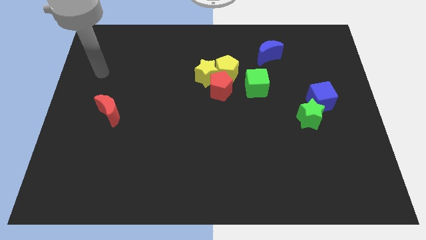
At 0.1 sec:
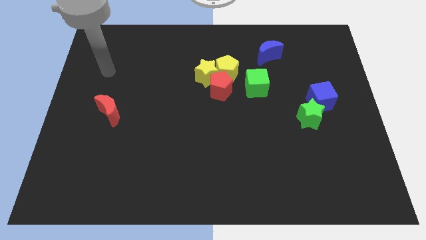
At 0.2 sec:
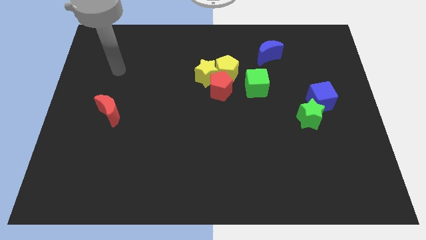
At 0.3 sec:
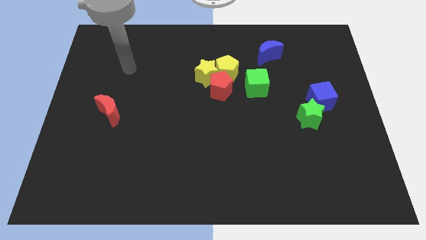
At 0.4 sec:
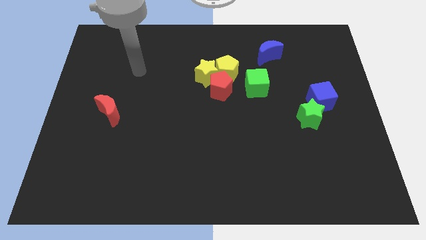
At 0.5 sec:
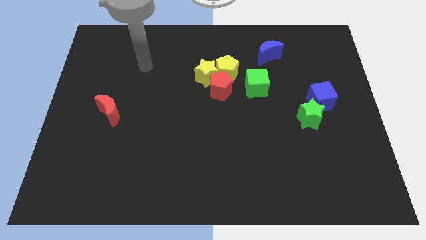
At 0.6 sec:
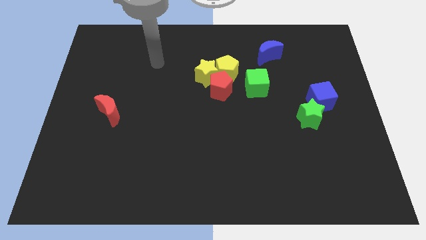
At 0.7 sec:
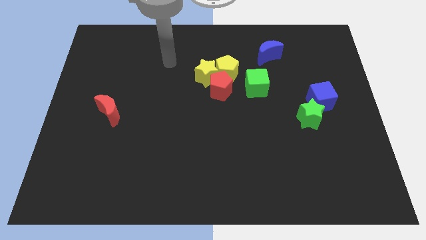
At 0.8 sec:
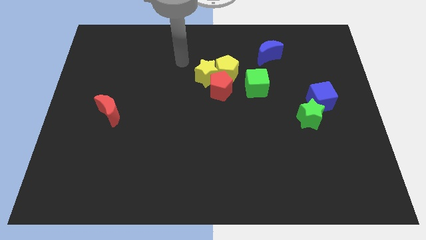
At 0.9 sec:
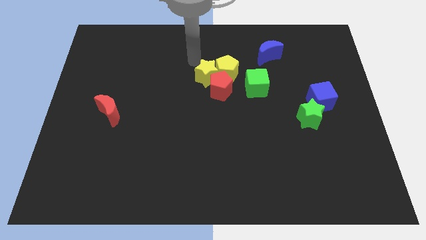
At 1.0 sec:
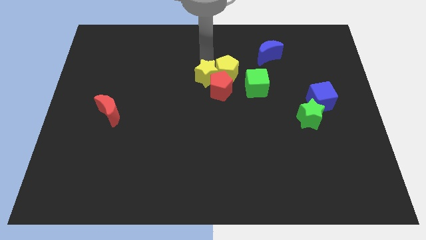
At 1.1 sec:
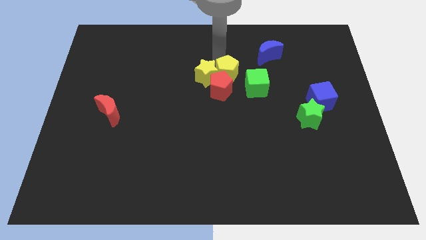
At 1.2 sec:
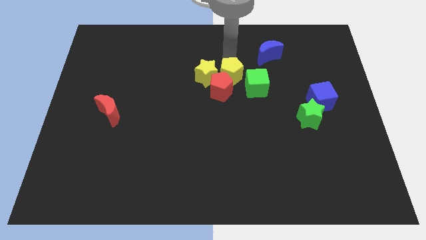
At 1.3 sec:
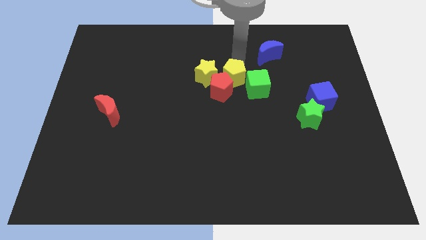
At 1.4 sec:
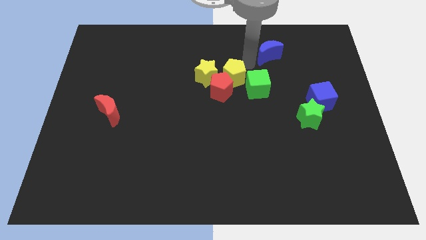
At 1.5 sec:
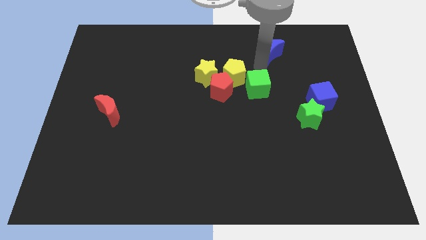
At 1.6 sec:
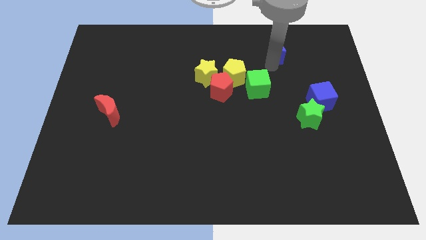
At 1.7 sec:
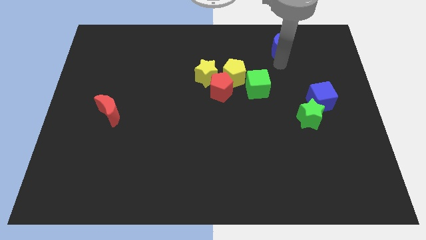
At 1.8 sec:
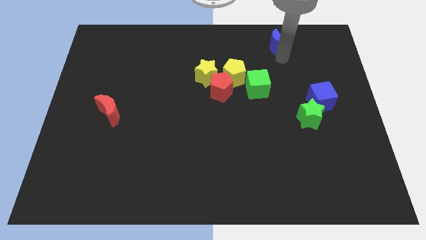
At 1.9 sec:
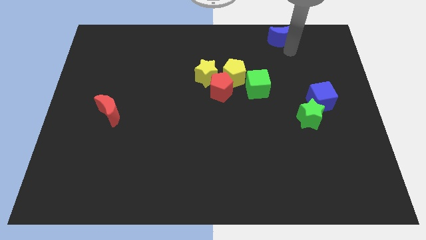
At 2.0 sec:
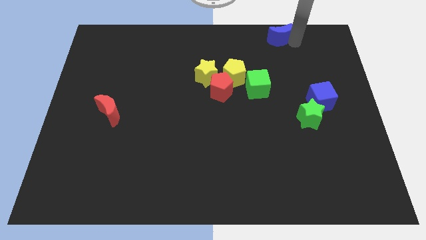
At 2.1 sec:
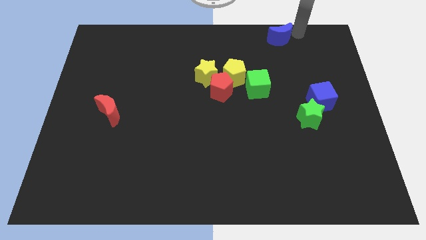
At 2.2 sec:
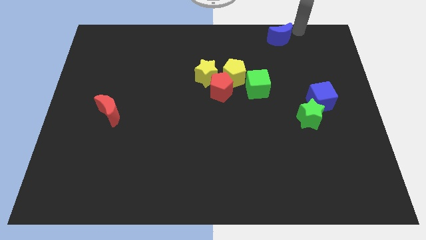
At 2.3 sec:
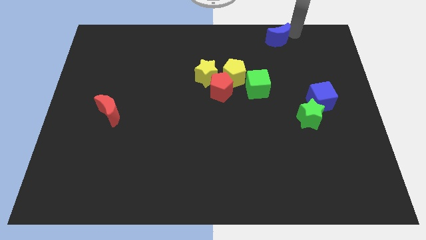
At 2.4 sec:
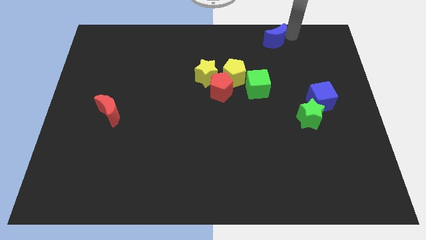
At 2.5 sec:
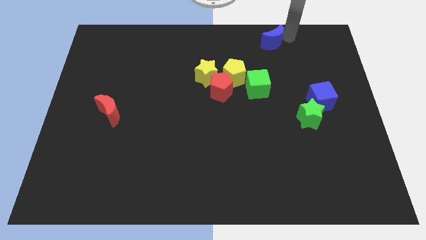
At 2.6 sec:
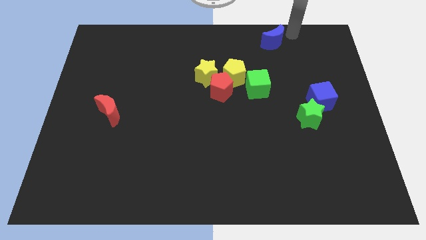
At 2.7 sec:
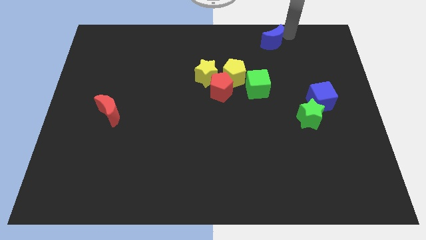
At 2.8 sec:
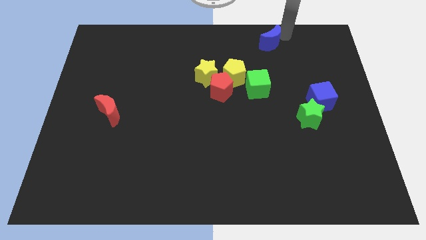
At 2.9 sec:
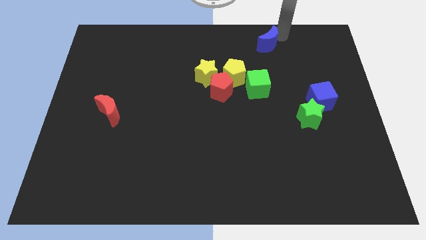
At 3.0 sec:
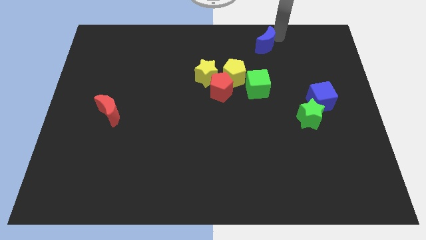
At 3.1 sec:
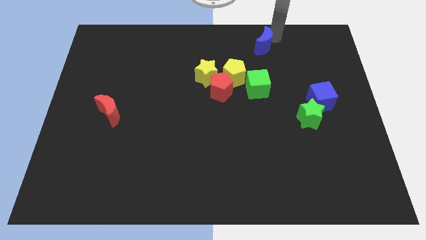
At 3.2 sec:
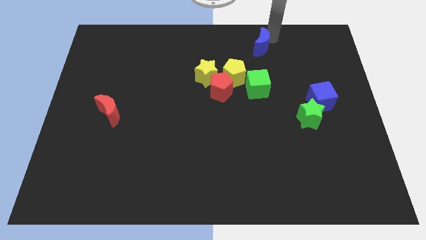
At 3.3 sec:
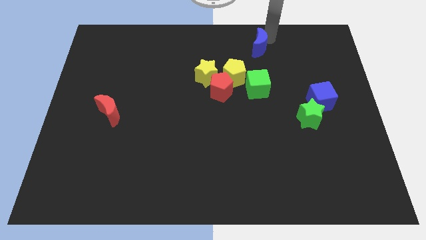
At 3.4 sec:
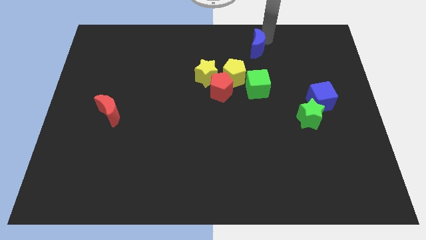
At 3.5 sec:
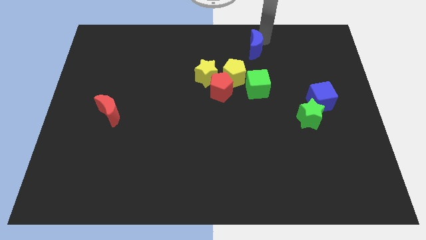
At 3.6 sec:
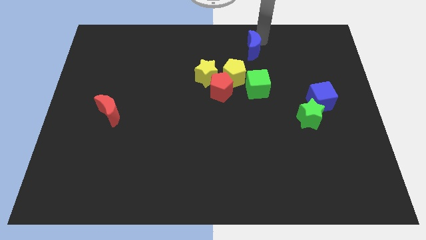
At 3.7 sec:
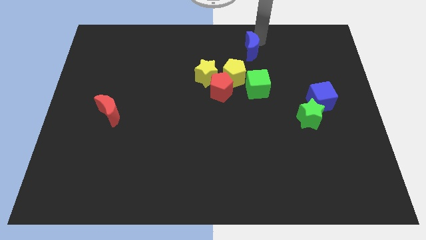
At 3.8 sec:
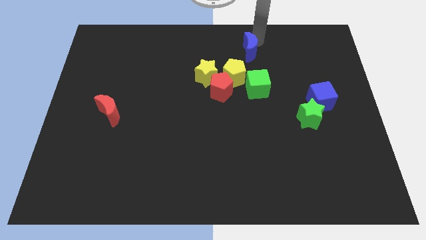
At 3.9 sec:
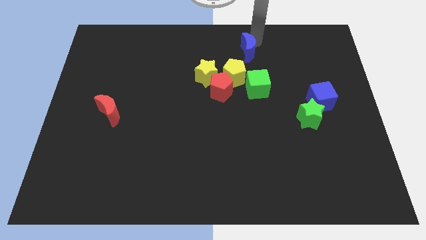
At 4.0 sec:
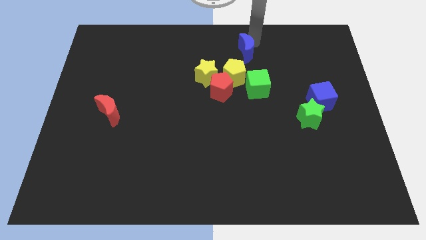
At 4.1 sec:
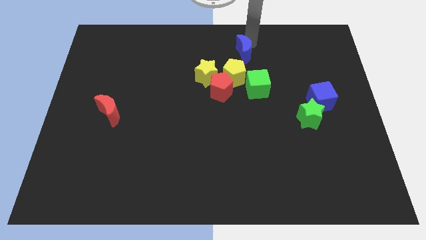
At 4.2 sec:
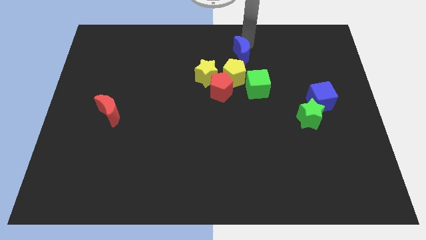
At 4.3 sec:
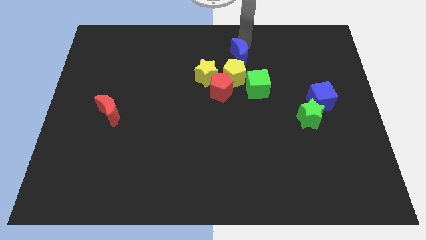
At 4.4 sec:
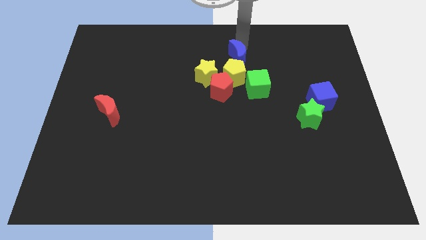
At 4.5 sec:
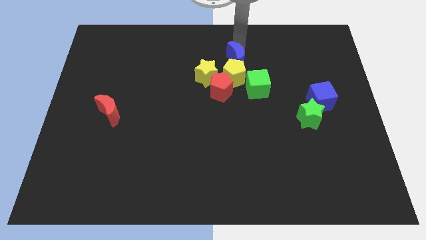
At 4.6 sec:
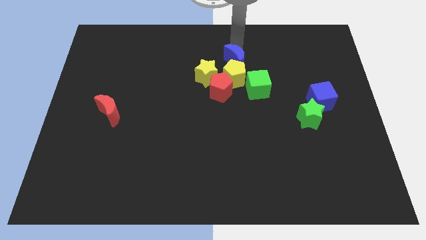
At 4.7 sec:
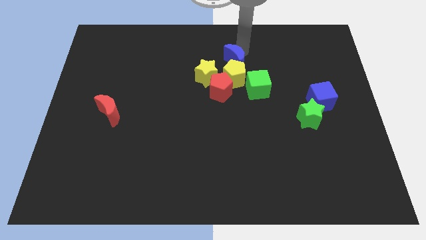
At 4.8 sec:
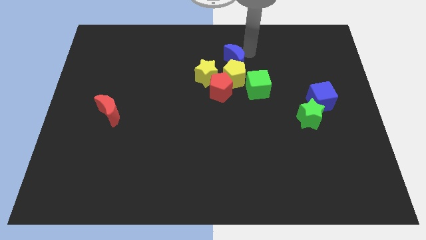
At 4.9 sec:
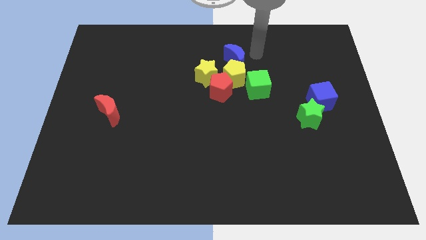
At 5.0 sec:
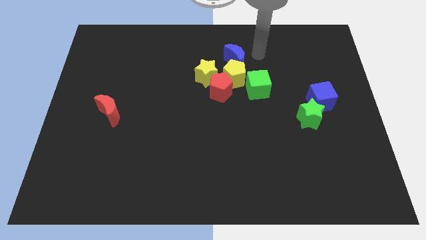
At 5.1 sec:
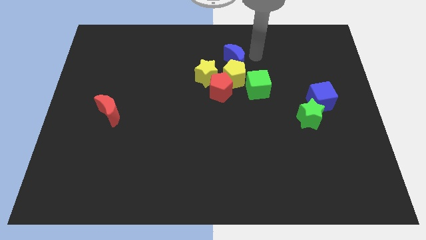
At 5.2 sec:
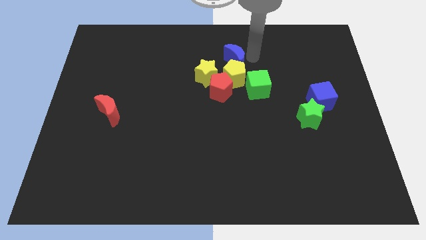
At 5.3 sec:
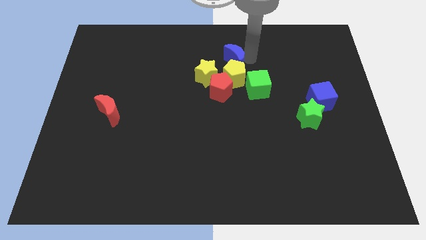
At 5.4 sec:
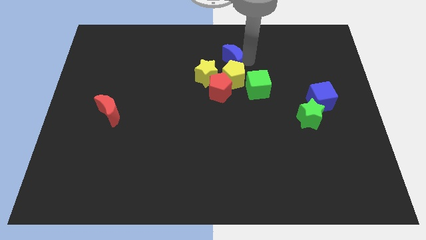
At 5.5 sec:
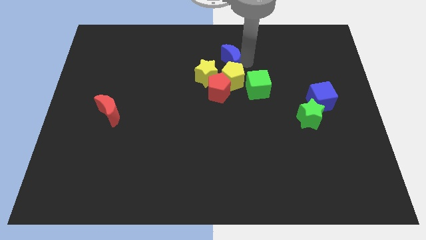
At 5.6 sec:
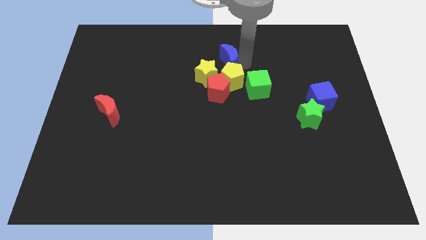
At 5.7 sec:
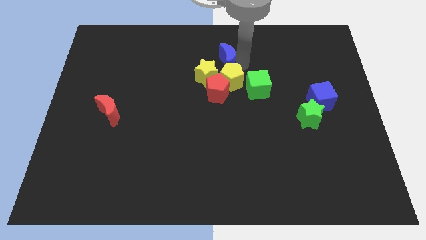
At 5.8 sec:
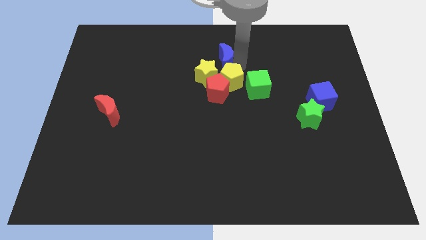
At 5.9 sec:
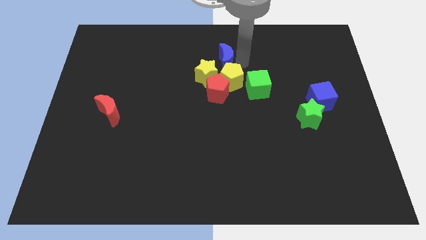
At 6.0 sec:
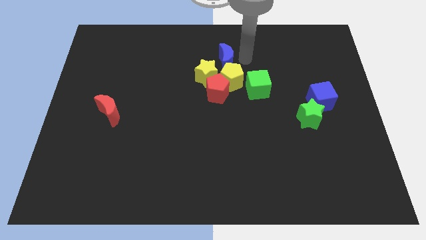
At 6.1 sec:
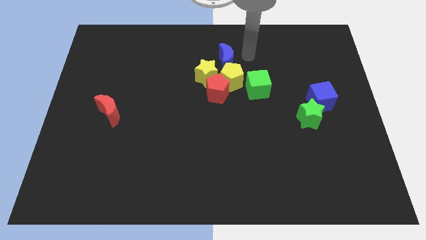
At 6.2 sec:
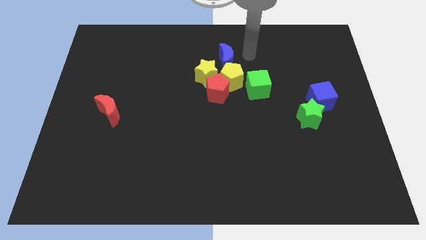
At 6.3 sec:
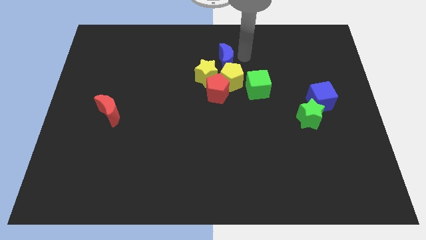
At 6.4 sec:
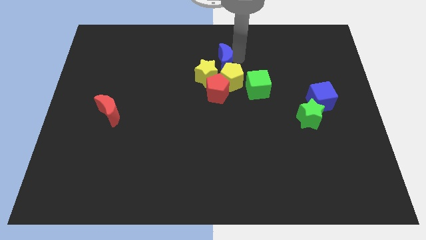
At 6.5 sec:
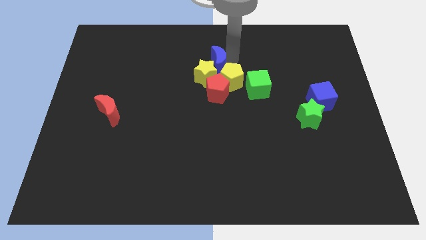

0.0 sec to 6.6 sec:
slide the blue moon towards the yellow star

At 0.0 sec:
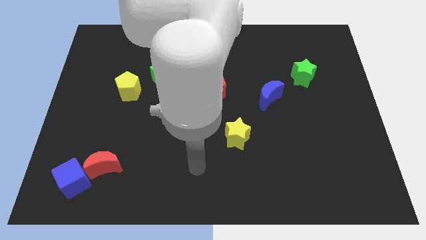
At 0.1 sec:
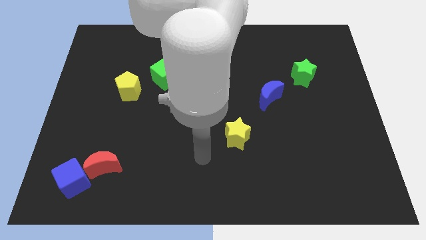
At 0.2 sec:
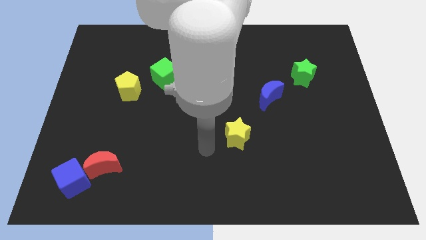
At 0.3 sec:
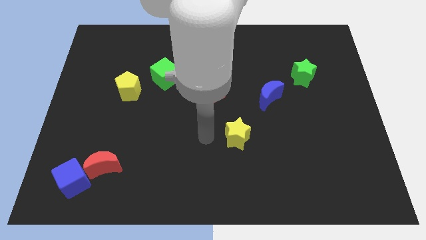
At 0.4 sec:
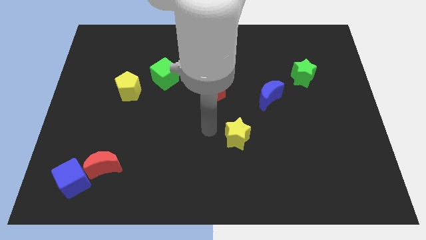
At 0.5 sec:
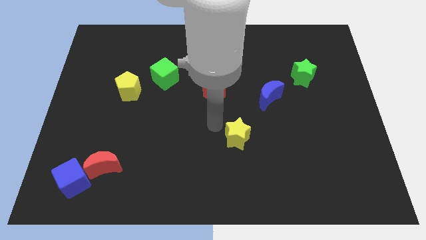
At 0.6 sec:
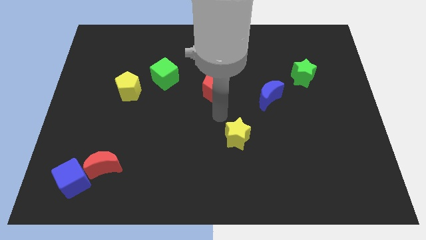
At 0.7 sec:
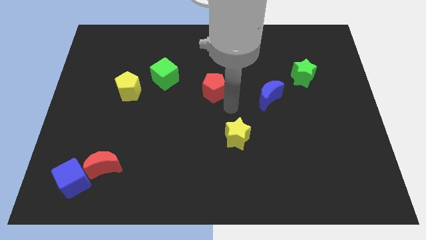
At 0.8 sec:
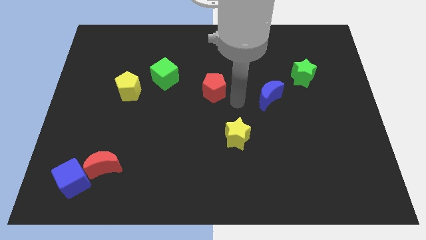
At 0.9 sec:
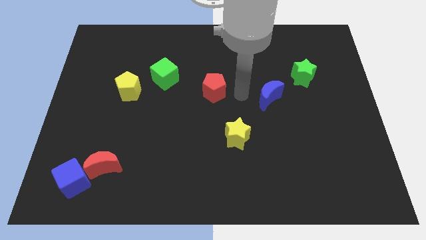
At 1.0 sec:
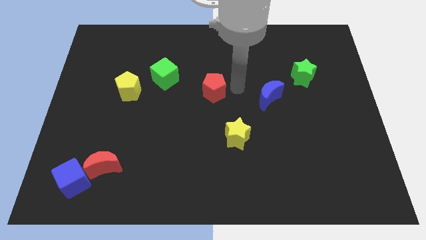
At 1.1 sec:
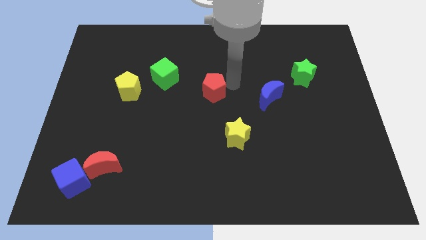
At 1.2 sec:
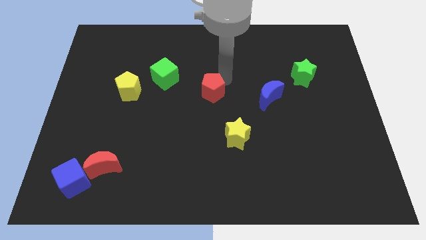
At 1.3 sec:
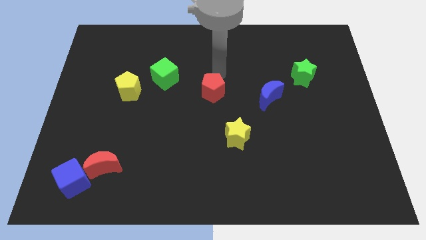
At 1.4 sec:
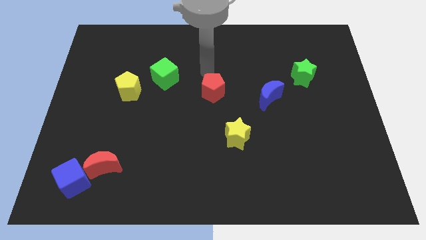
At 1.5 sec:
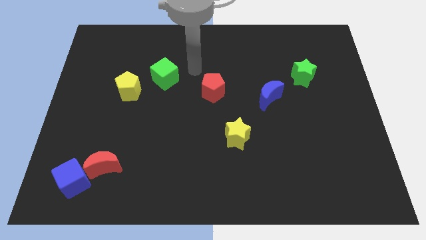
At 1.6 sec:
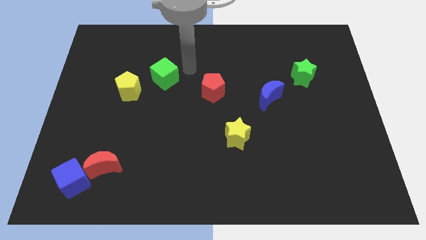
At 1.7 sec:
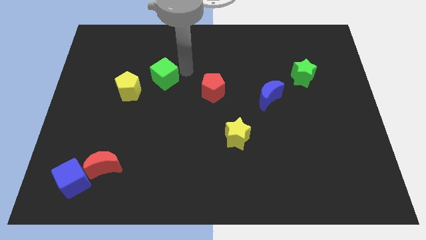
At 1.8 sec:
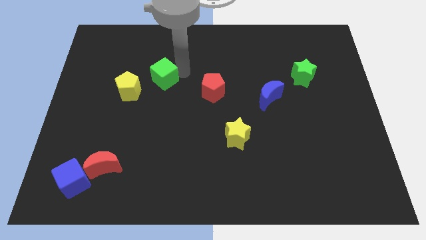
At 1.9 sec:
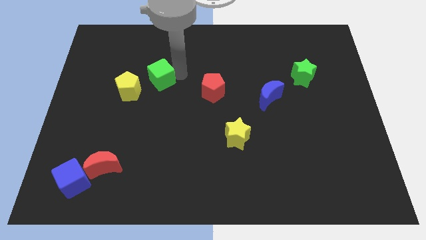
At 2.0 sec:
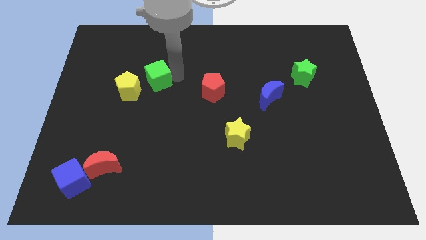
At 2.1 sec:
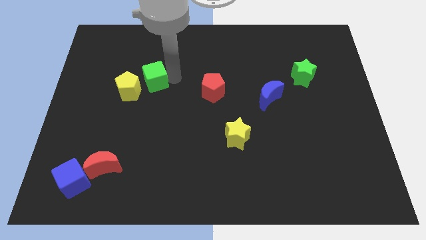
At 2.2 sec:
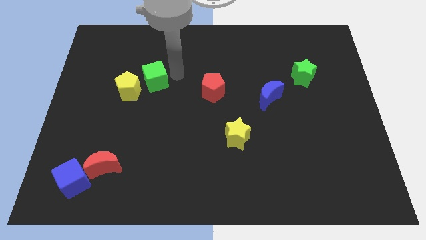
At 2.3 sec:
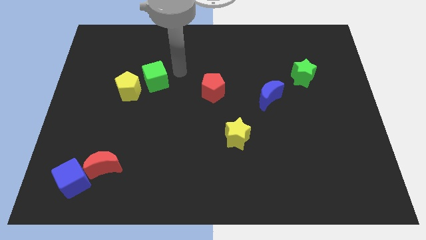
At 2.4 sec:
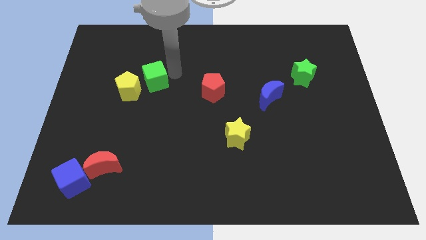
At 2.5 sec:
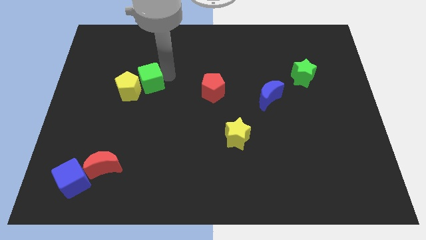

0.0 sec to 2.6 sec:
move the green cube close to the yellow pentagon
